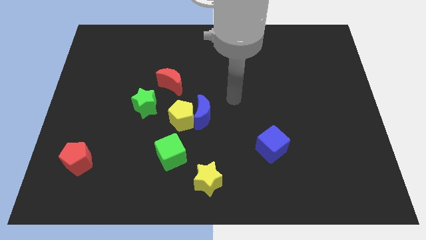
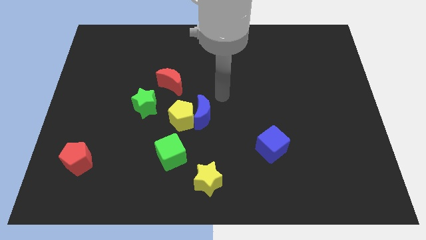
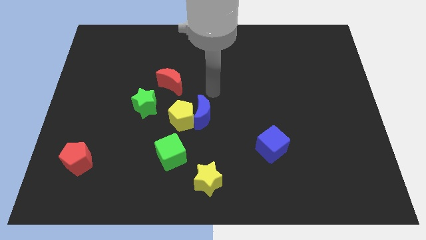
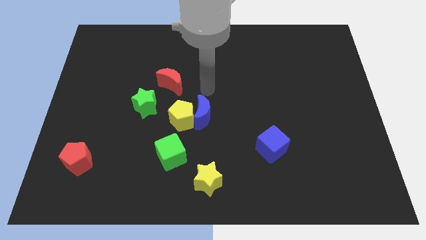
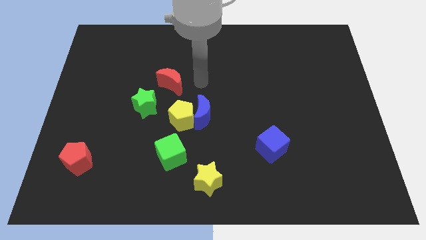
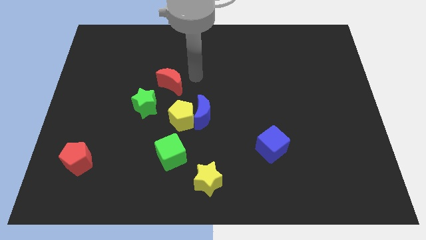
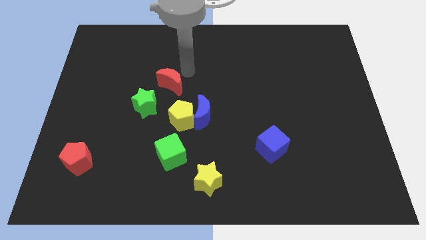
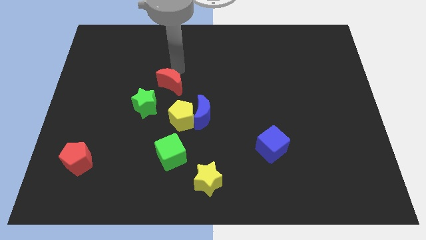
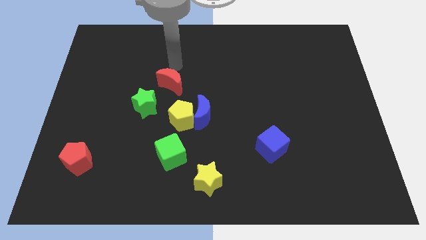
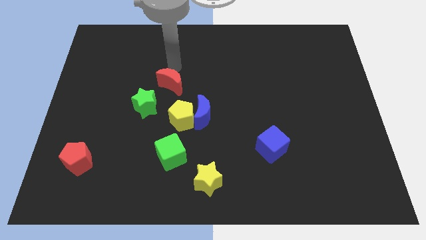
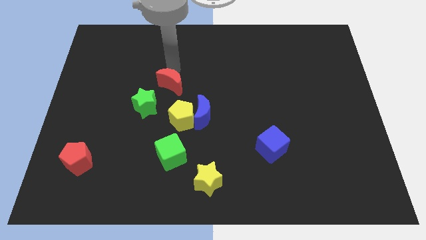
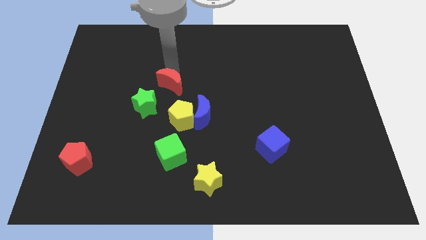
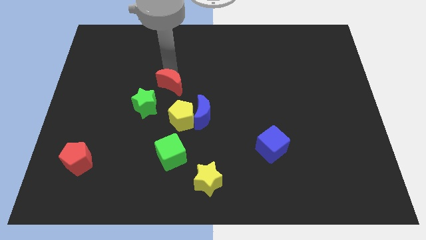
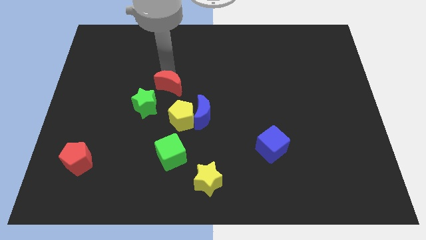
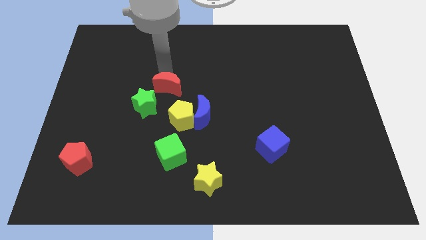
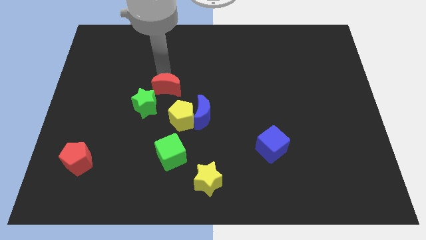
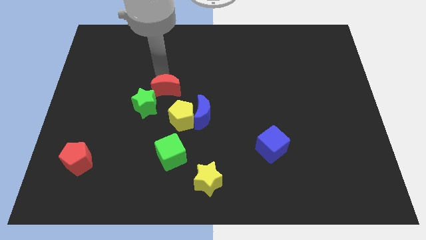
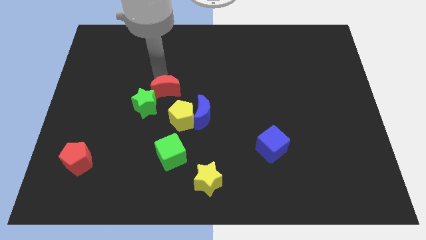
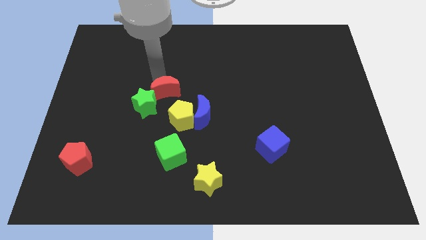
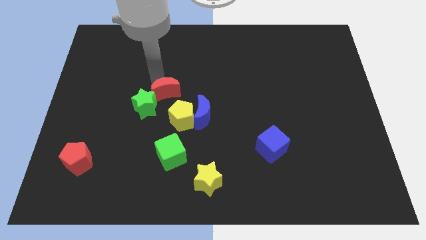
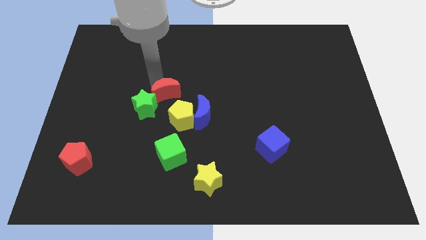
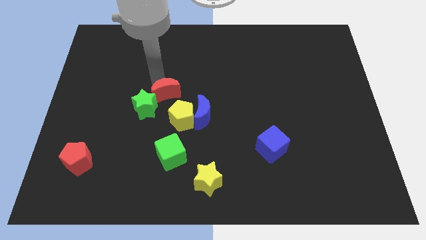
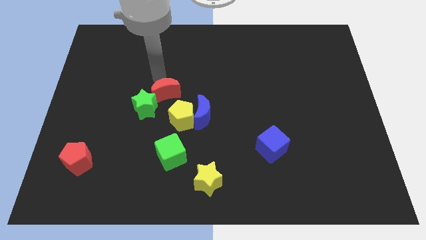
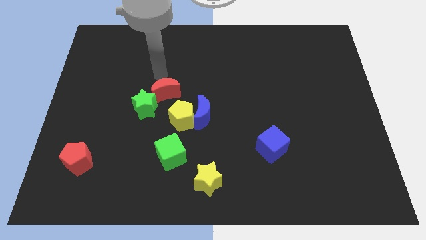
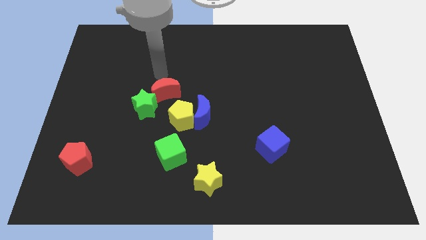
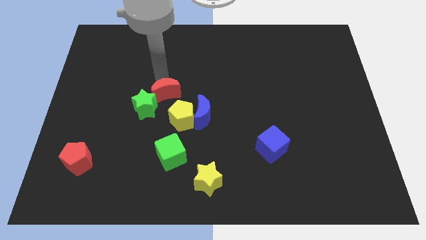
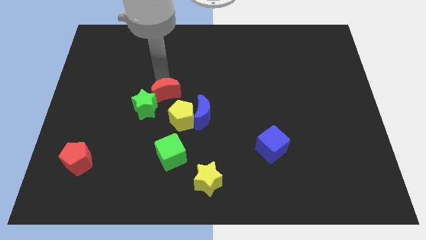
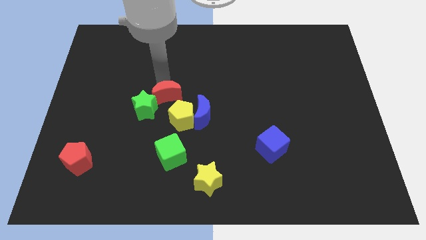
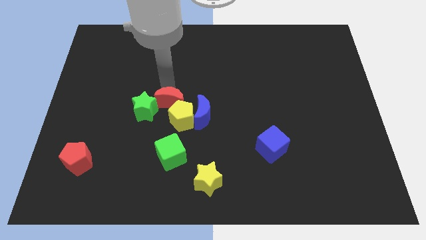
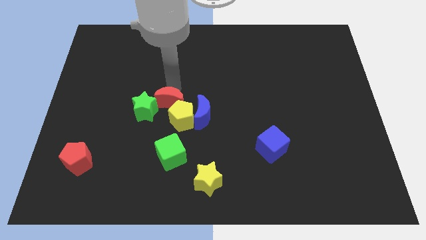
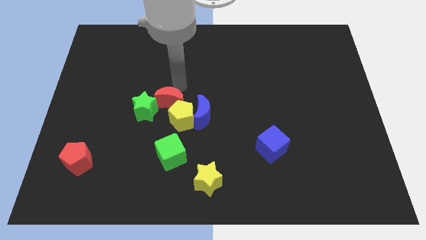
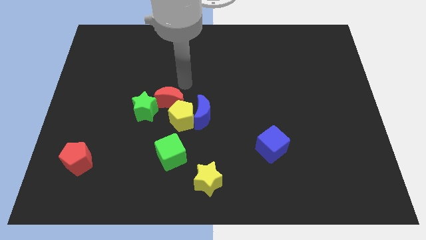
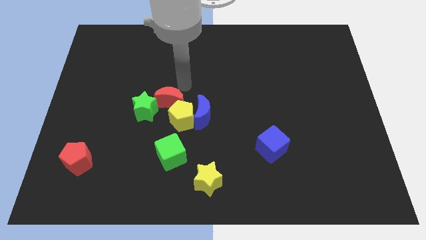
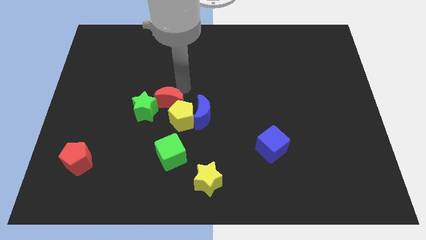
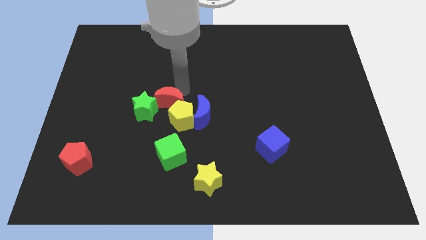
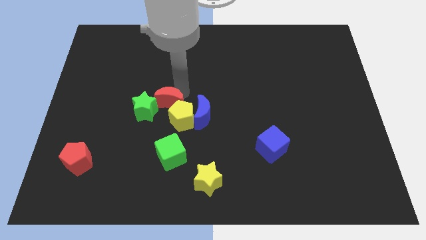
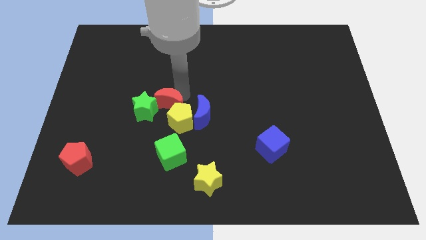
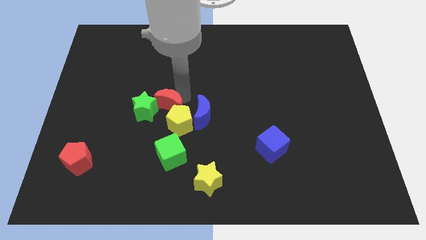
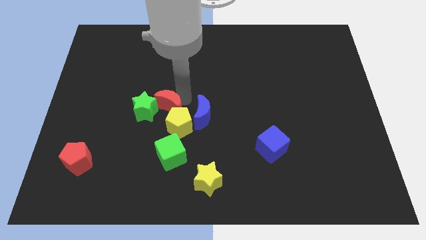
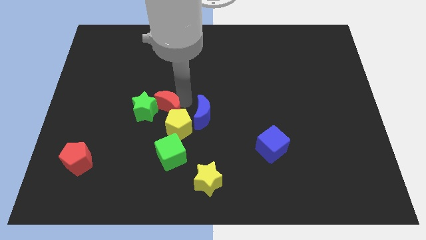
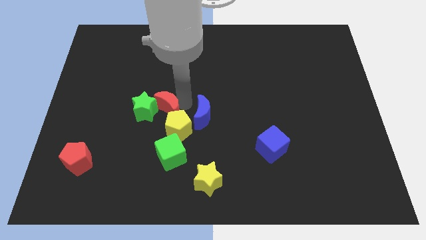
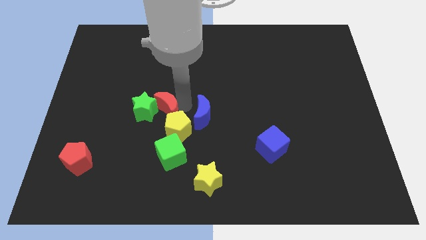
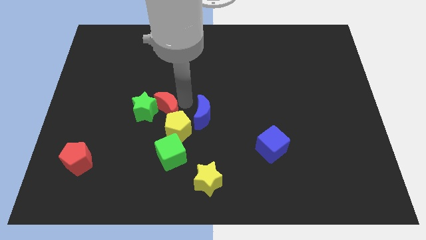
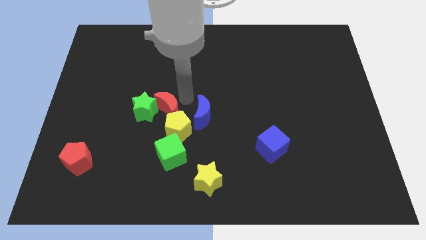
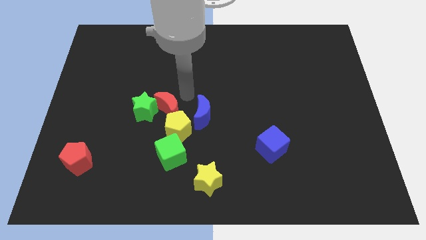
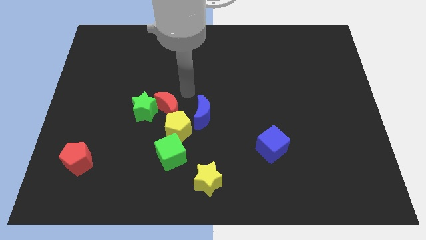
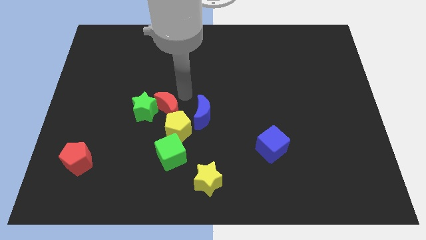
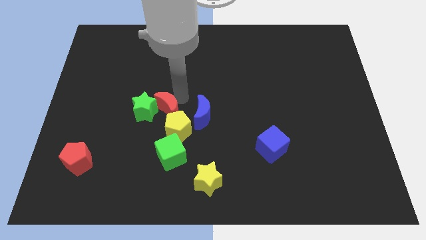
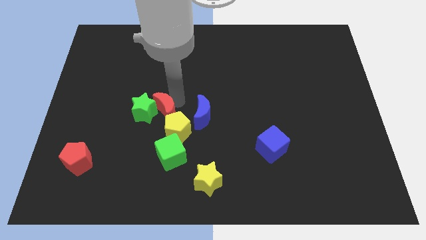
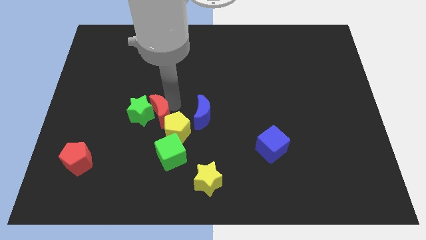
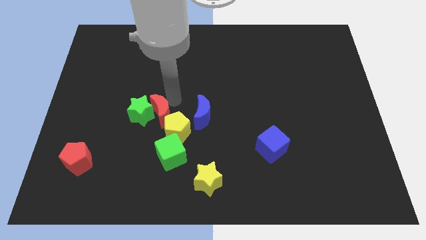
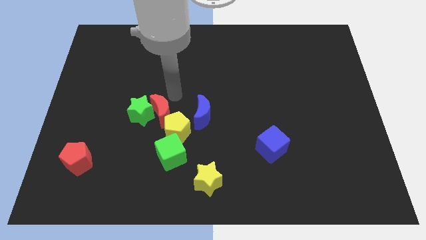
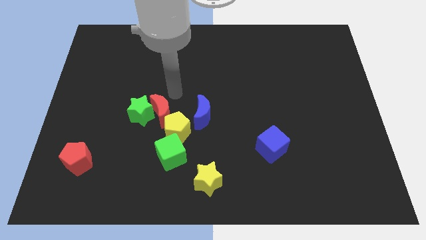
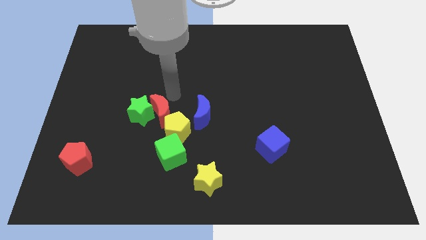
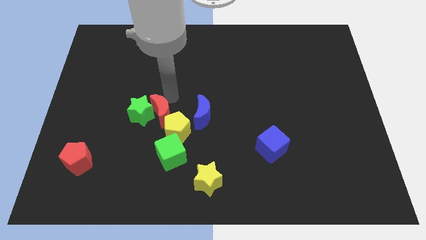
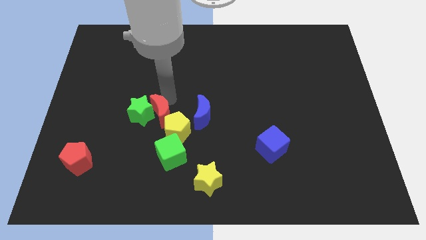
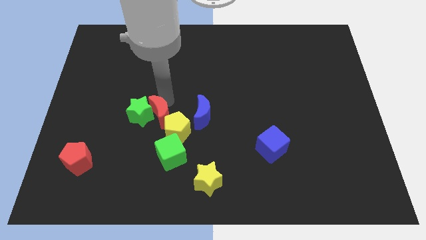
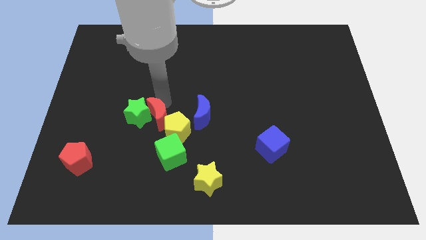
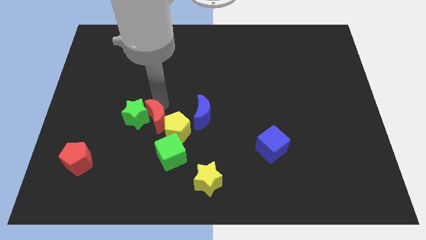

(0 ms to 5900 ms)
put the red moon to the top left side of the green cube

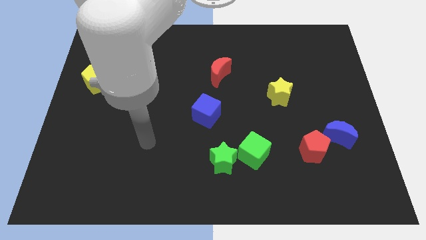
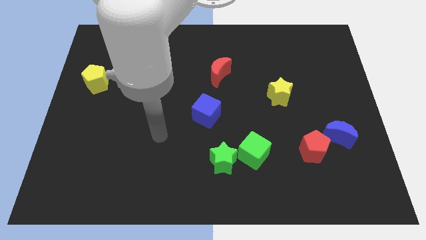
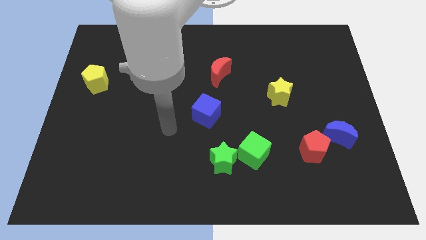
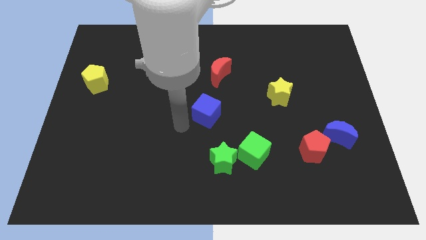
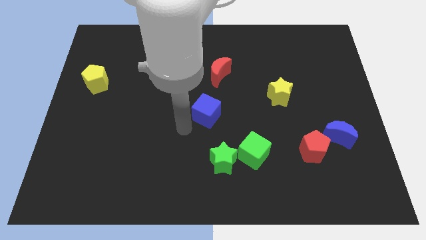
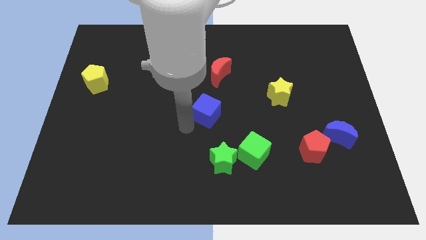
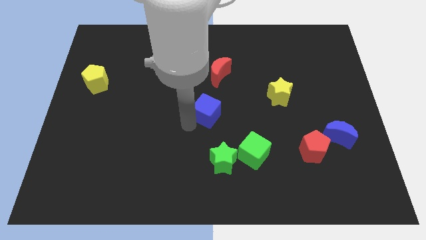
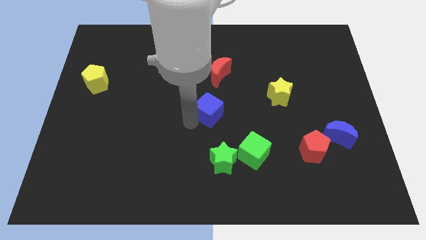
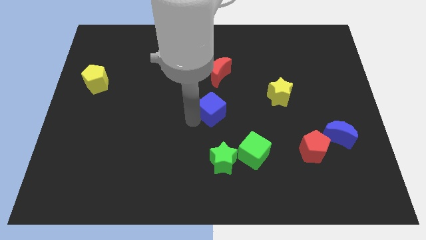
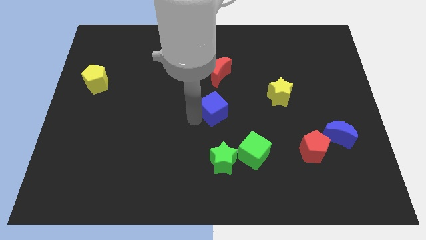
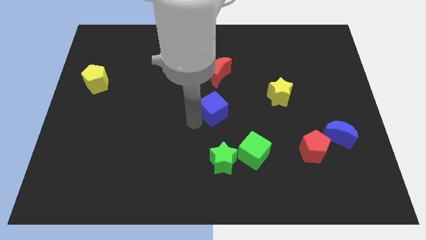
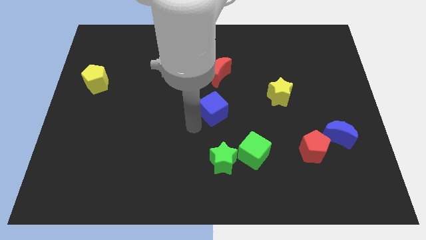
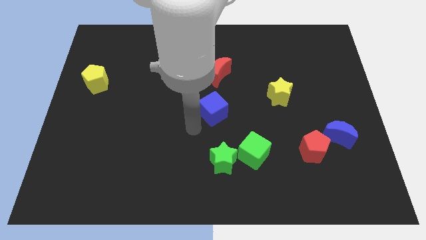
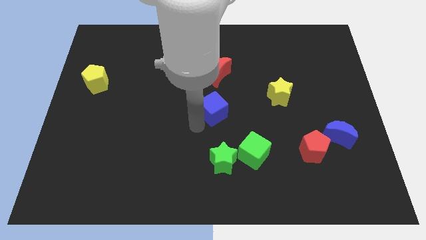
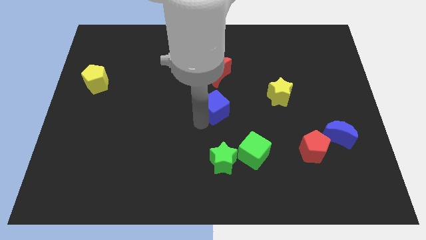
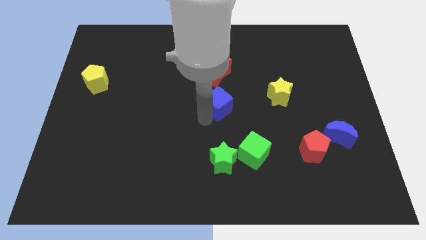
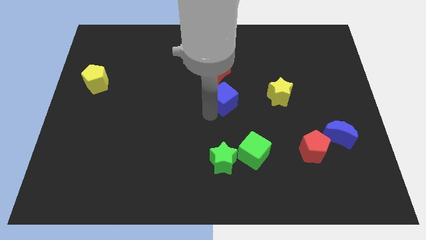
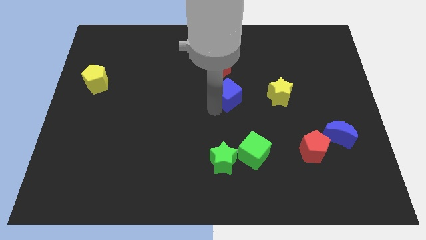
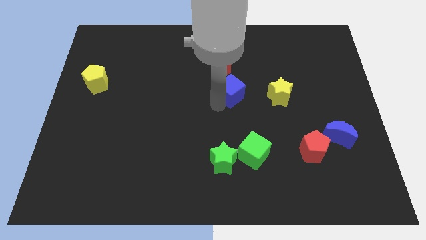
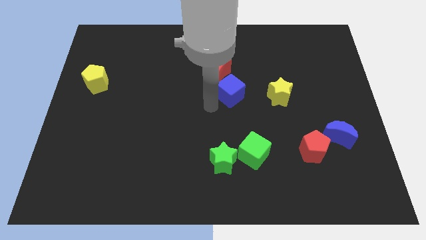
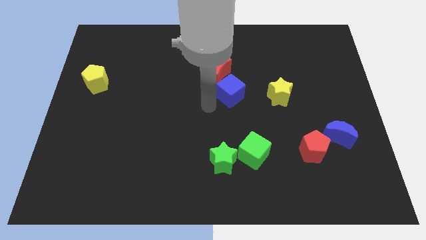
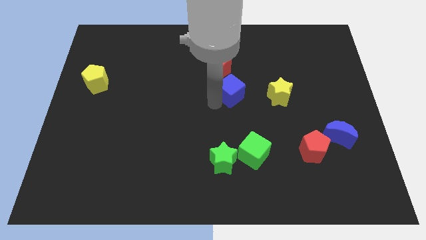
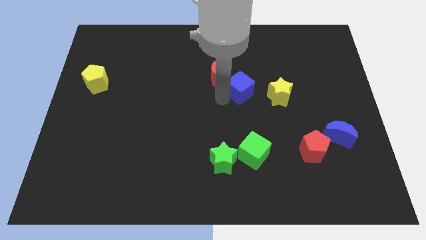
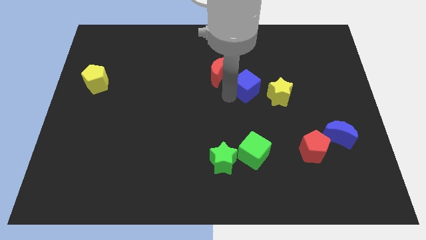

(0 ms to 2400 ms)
push the blue cube to the top left side of the yellow star
